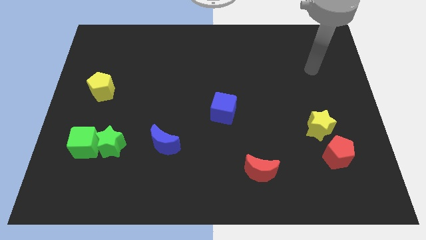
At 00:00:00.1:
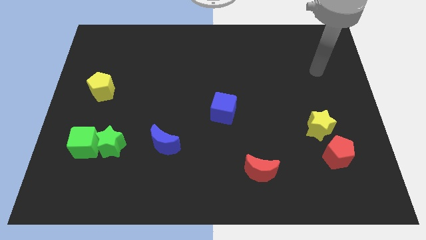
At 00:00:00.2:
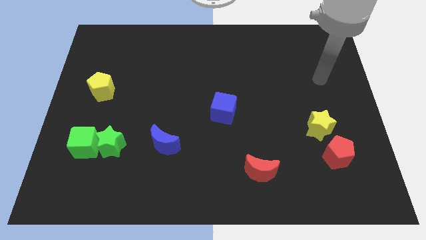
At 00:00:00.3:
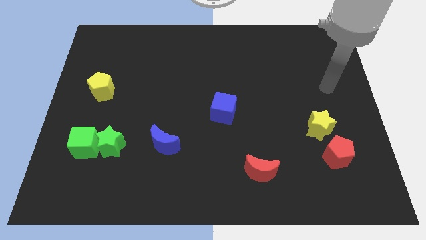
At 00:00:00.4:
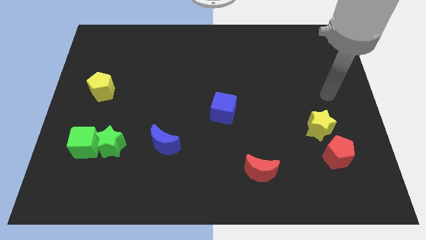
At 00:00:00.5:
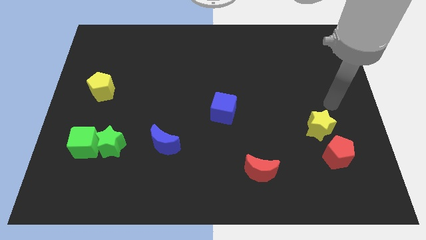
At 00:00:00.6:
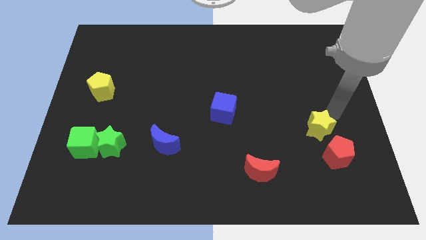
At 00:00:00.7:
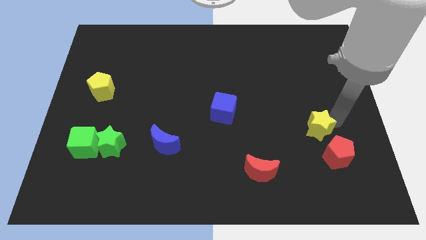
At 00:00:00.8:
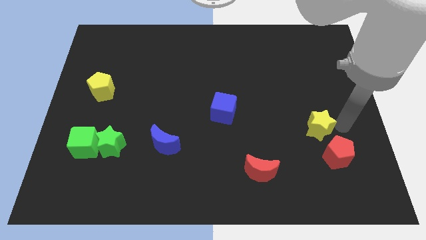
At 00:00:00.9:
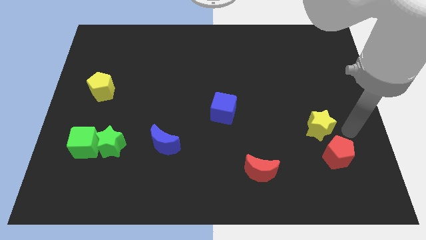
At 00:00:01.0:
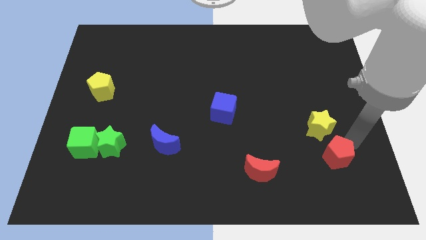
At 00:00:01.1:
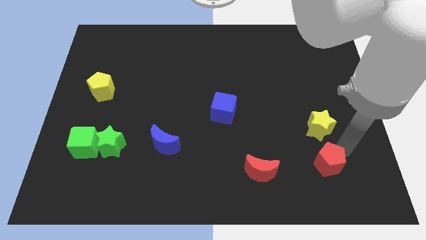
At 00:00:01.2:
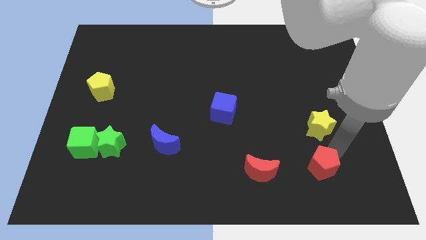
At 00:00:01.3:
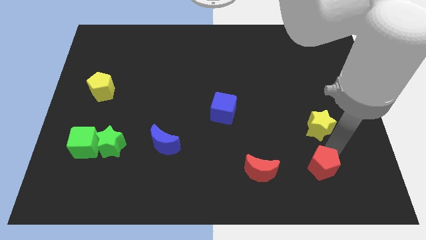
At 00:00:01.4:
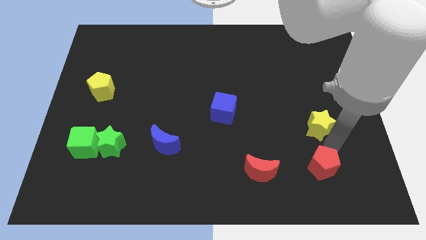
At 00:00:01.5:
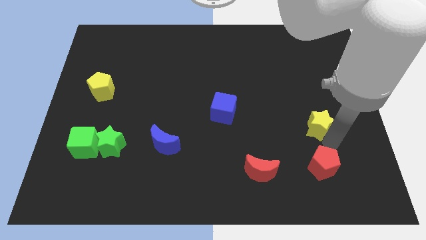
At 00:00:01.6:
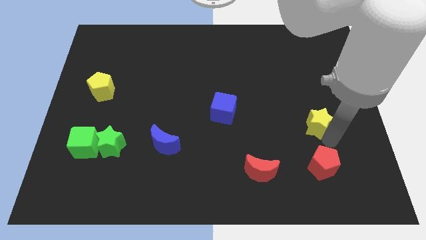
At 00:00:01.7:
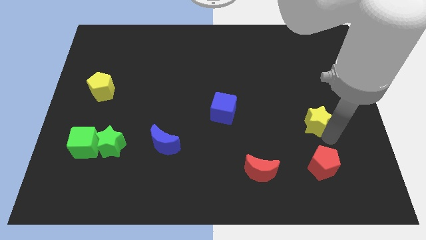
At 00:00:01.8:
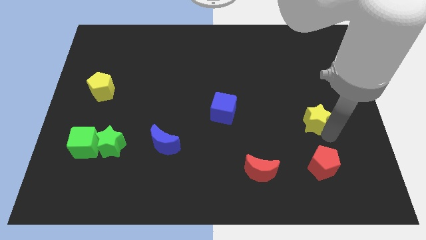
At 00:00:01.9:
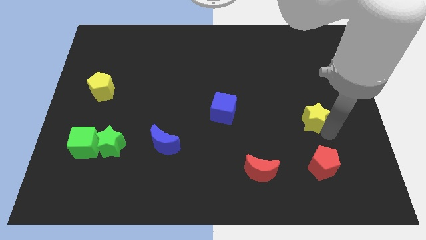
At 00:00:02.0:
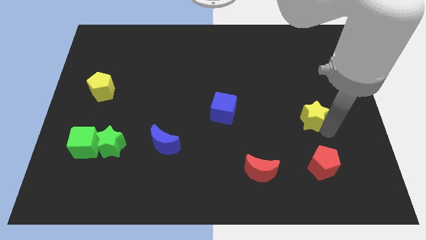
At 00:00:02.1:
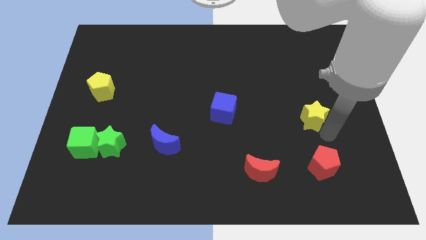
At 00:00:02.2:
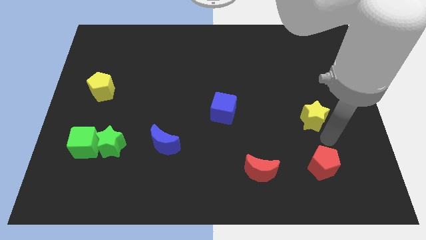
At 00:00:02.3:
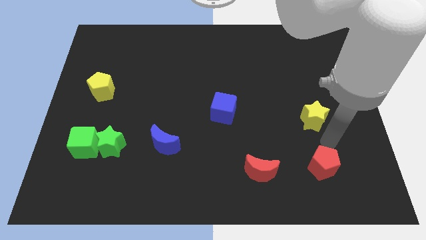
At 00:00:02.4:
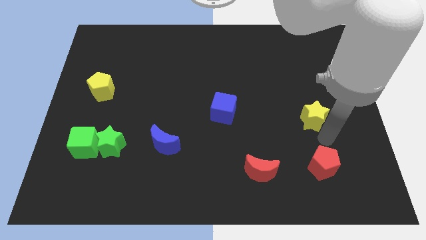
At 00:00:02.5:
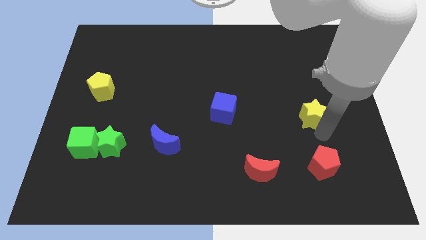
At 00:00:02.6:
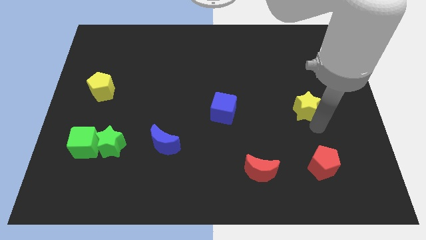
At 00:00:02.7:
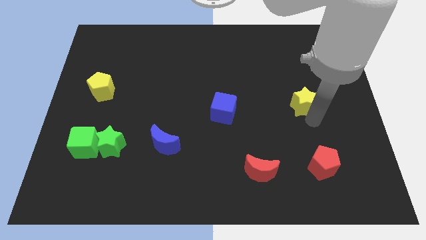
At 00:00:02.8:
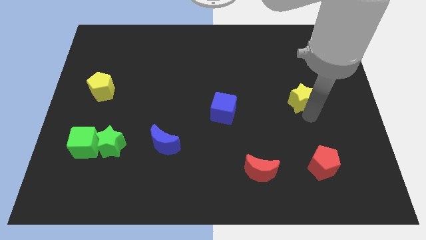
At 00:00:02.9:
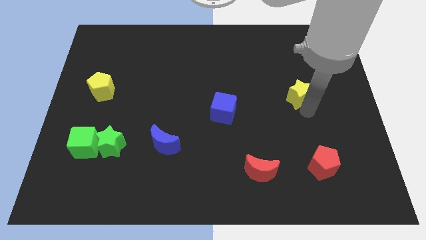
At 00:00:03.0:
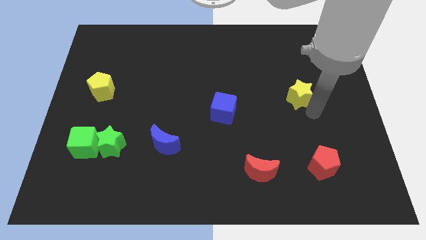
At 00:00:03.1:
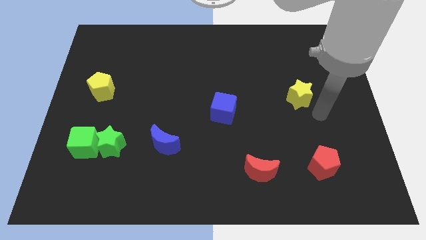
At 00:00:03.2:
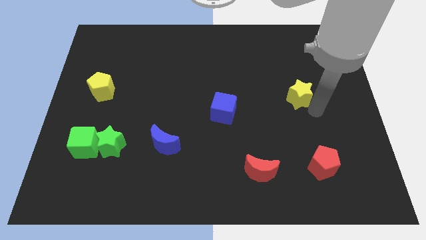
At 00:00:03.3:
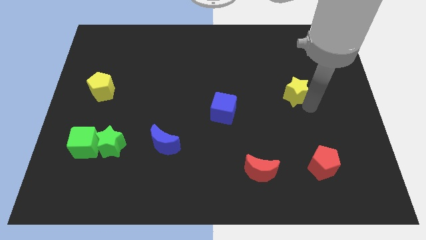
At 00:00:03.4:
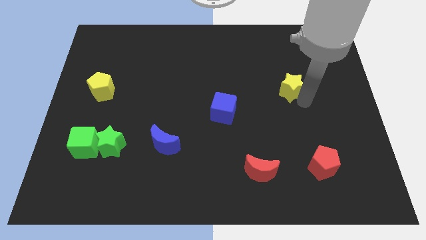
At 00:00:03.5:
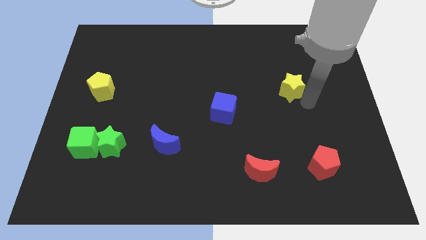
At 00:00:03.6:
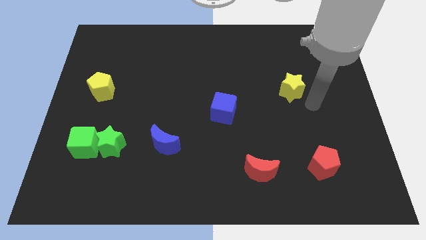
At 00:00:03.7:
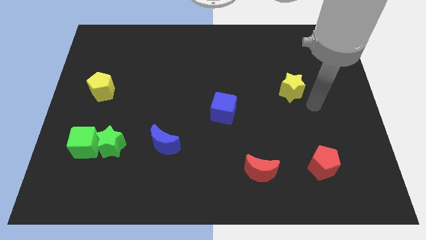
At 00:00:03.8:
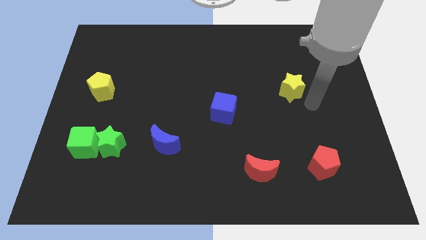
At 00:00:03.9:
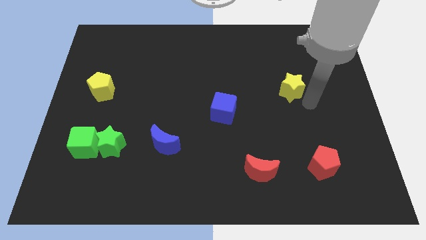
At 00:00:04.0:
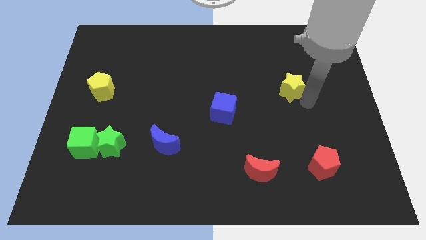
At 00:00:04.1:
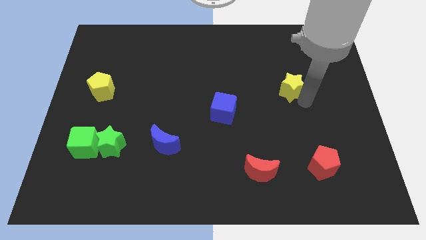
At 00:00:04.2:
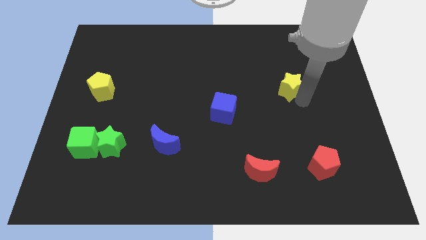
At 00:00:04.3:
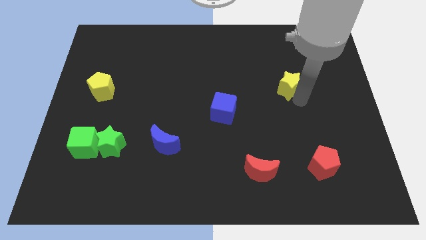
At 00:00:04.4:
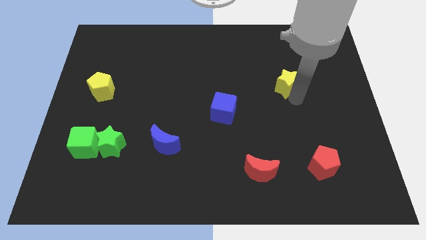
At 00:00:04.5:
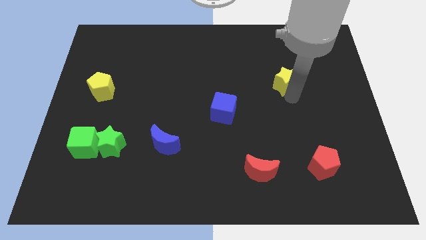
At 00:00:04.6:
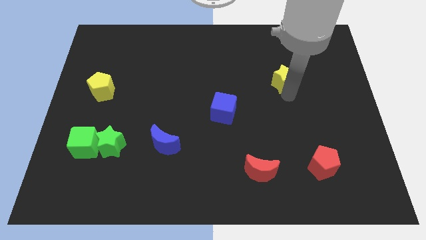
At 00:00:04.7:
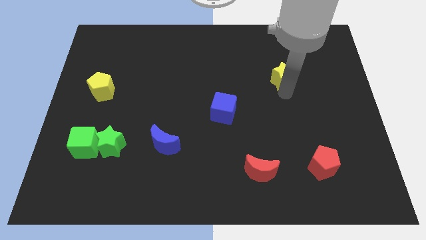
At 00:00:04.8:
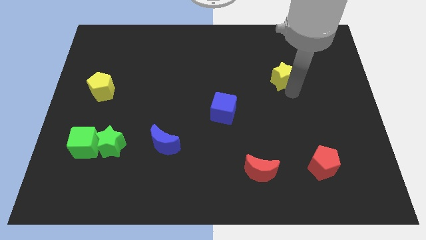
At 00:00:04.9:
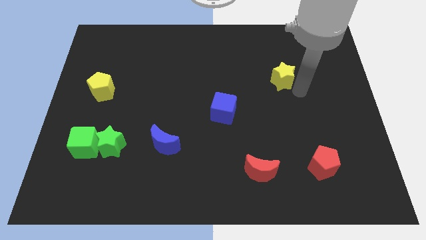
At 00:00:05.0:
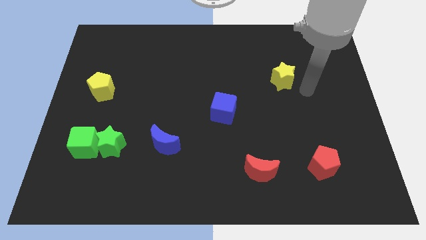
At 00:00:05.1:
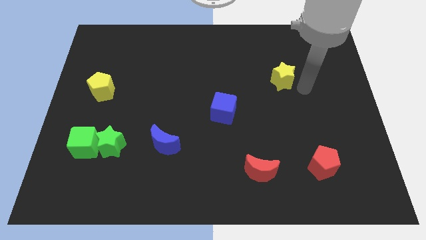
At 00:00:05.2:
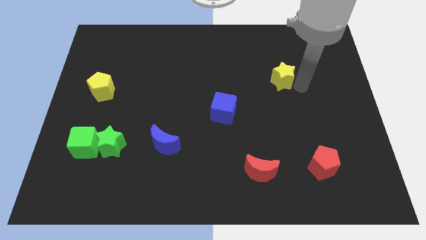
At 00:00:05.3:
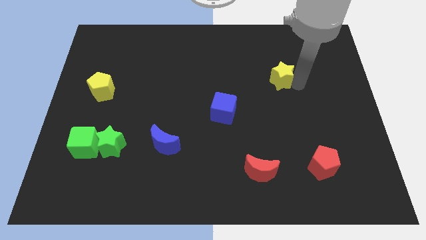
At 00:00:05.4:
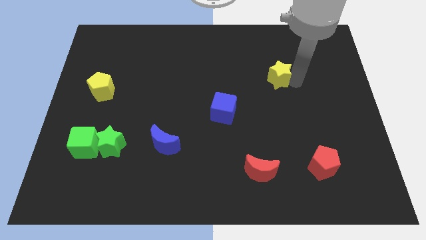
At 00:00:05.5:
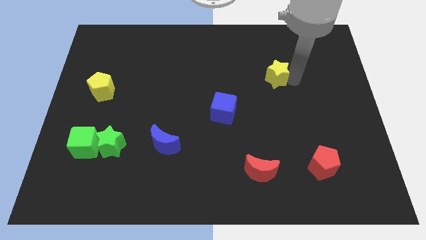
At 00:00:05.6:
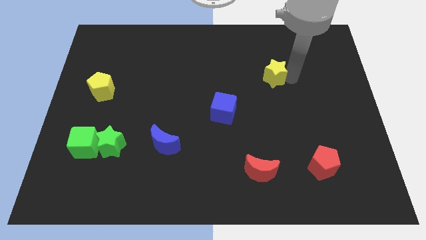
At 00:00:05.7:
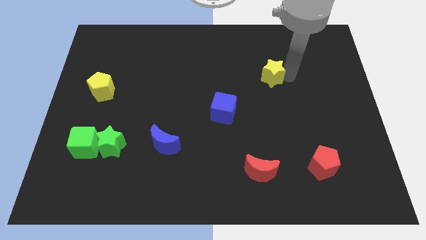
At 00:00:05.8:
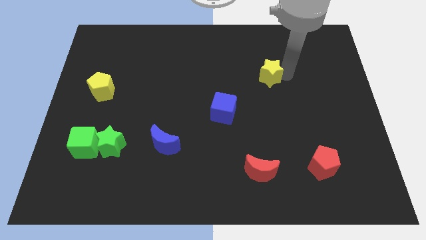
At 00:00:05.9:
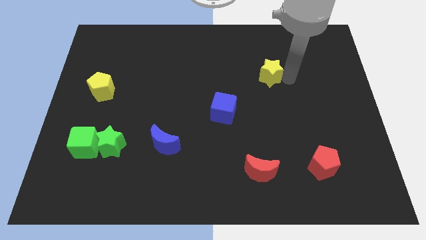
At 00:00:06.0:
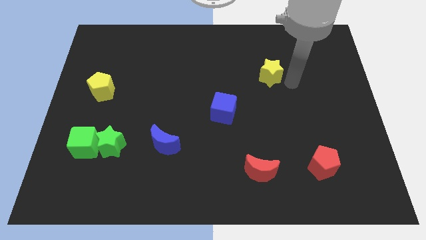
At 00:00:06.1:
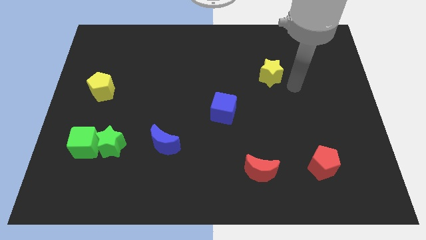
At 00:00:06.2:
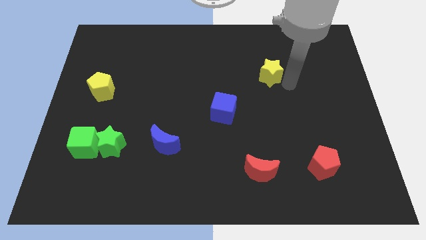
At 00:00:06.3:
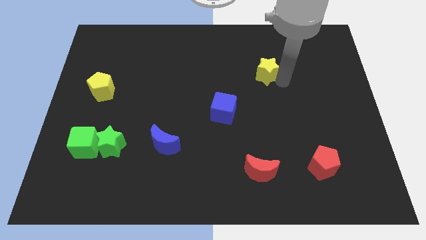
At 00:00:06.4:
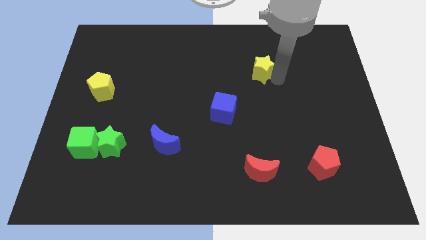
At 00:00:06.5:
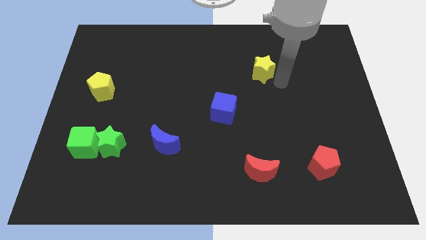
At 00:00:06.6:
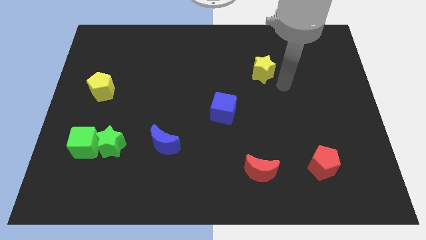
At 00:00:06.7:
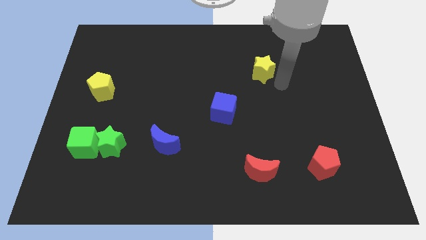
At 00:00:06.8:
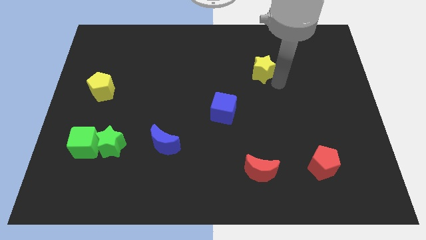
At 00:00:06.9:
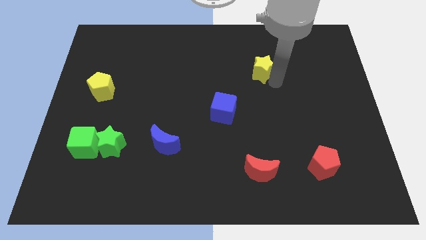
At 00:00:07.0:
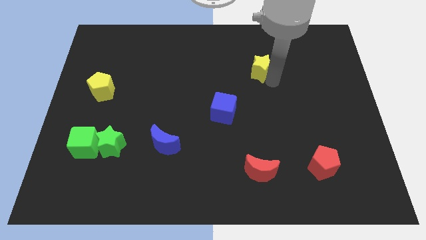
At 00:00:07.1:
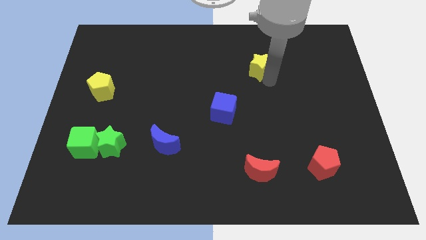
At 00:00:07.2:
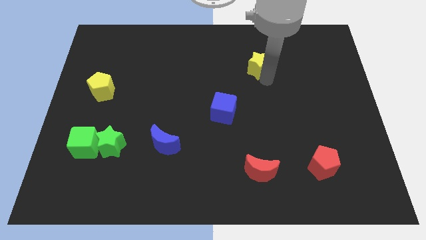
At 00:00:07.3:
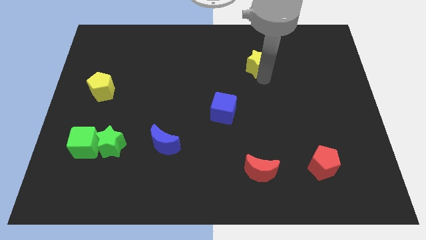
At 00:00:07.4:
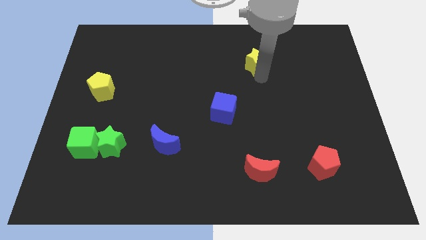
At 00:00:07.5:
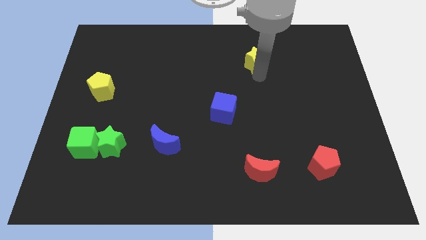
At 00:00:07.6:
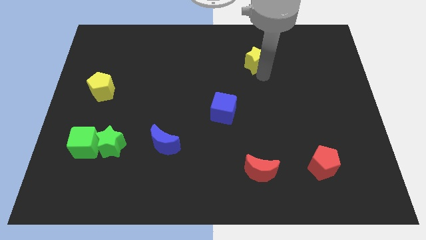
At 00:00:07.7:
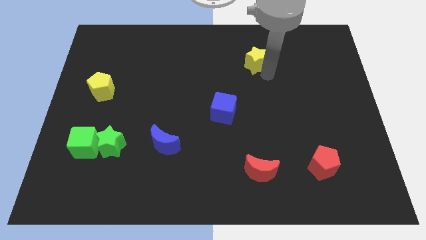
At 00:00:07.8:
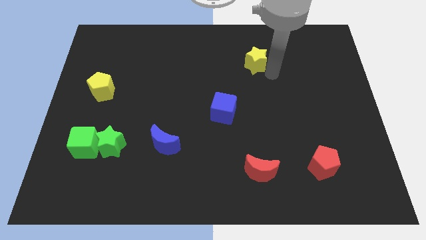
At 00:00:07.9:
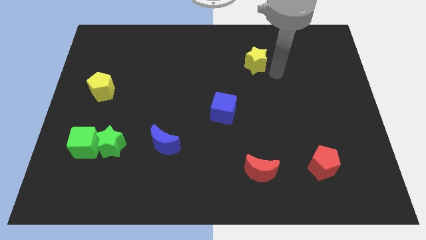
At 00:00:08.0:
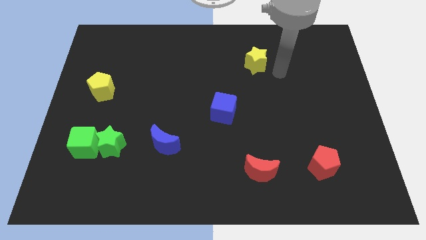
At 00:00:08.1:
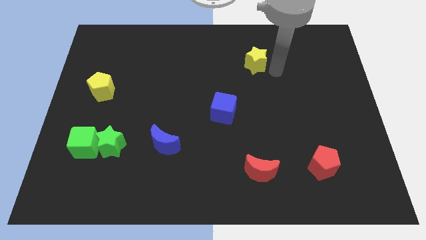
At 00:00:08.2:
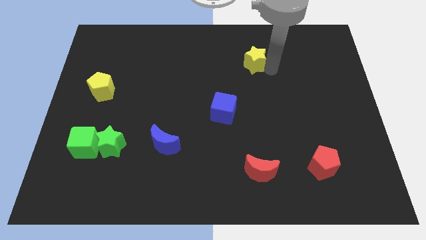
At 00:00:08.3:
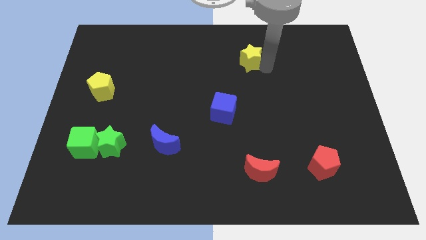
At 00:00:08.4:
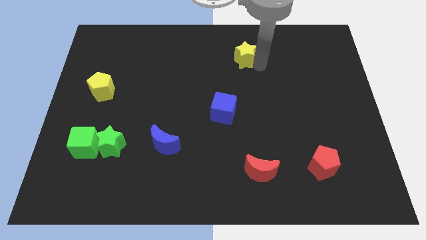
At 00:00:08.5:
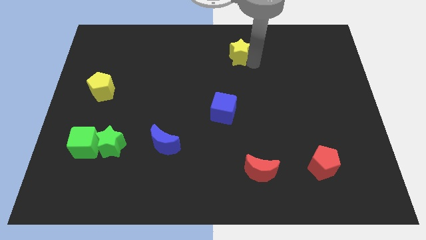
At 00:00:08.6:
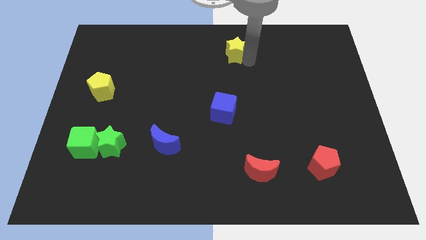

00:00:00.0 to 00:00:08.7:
slide the yellow star to the towards your base
